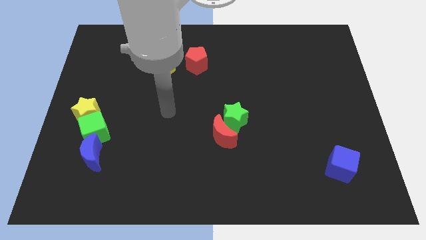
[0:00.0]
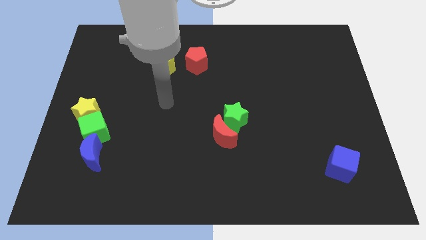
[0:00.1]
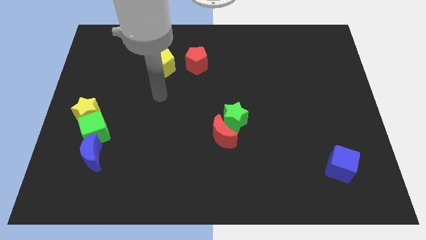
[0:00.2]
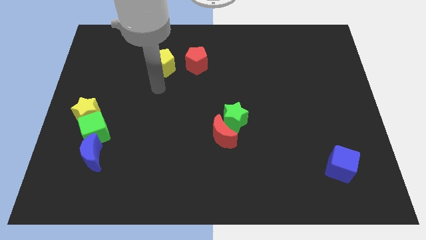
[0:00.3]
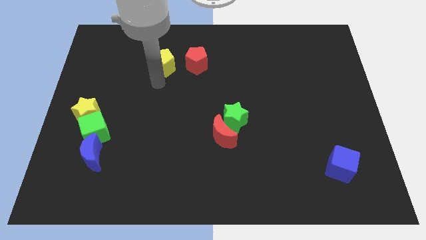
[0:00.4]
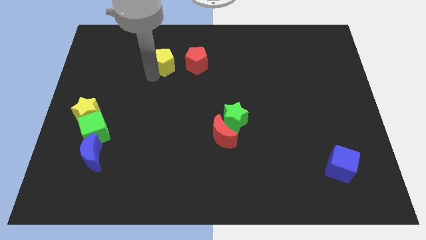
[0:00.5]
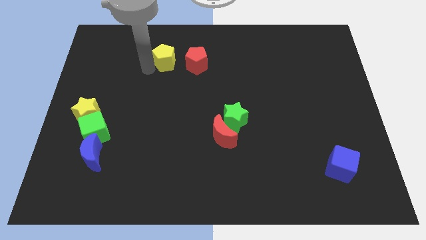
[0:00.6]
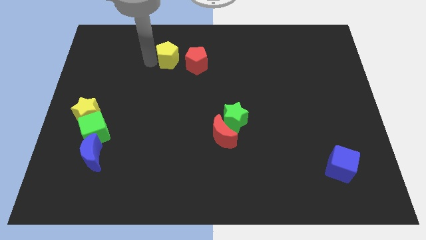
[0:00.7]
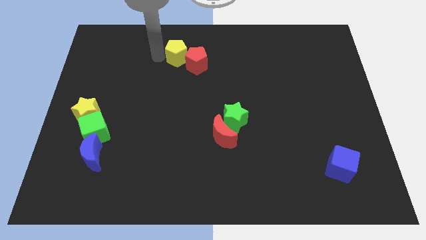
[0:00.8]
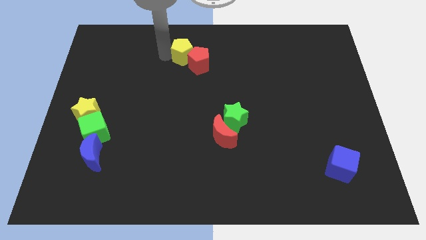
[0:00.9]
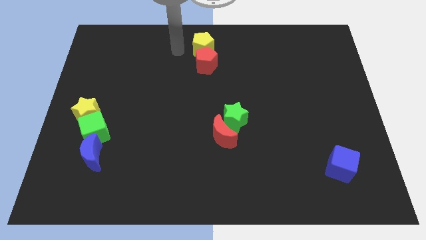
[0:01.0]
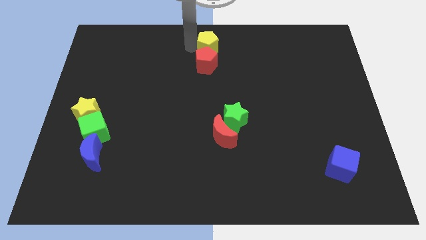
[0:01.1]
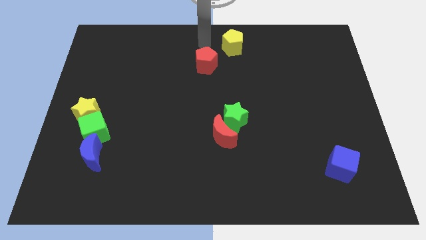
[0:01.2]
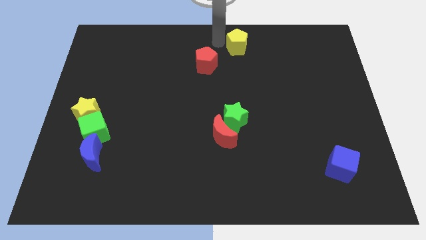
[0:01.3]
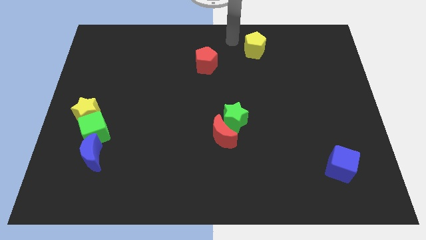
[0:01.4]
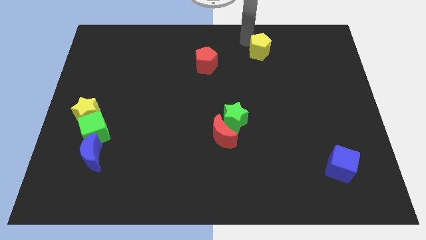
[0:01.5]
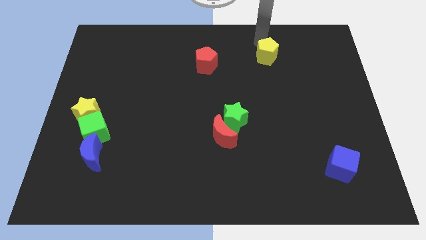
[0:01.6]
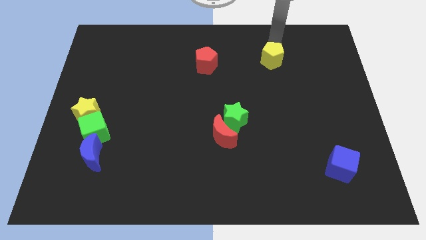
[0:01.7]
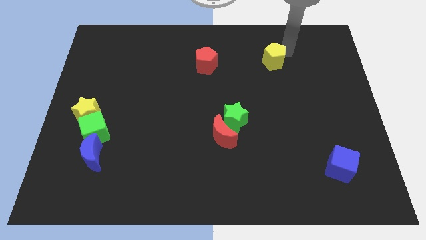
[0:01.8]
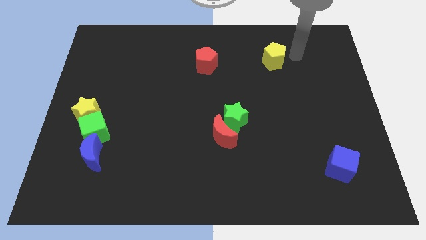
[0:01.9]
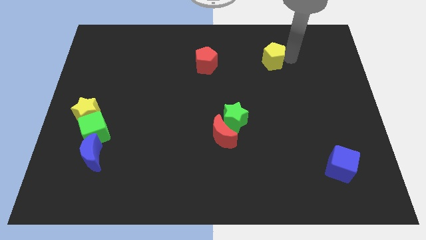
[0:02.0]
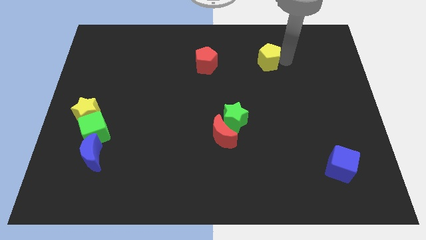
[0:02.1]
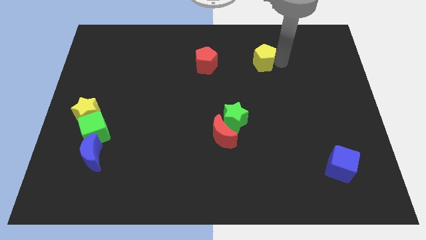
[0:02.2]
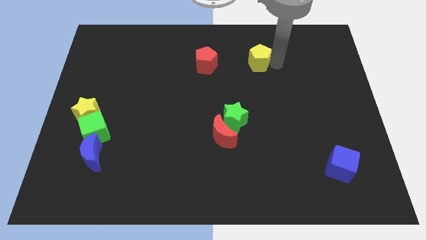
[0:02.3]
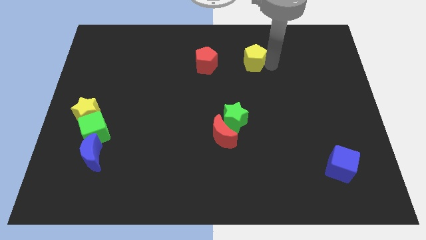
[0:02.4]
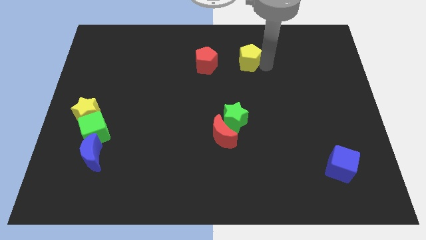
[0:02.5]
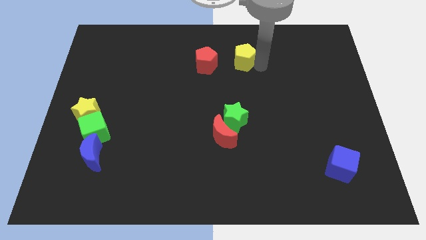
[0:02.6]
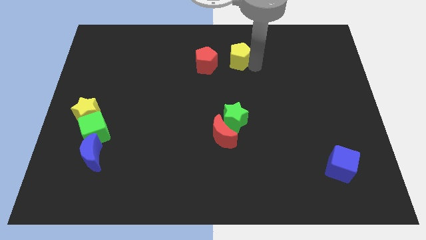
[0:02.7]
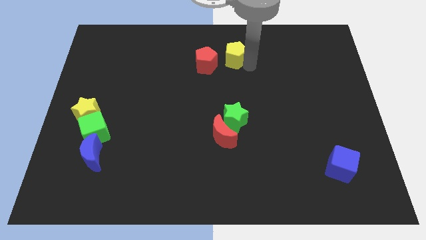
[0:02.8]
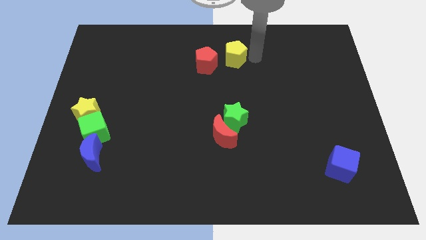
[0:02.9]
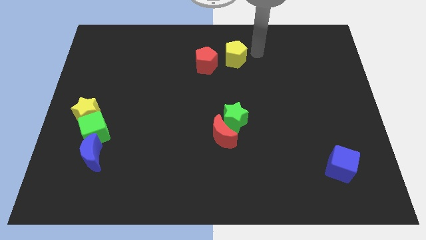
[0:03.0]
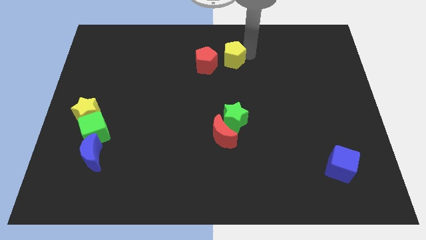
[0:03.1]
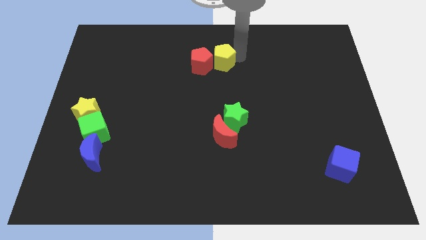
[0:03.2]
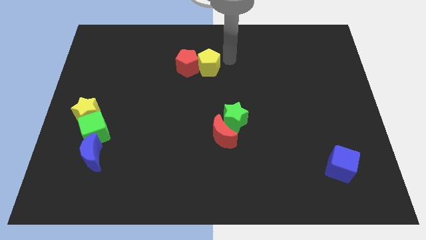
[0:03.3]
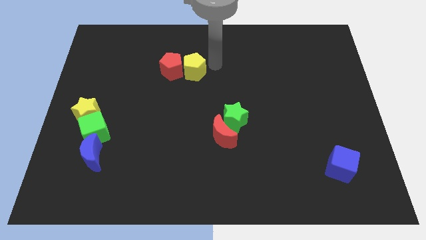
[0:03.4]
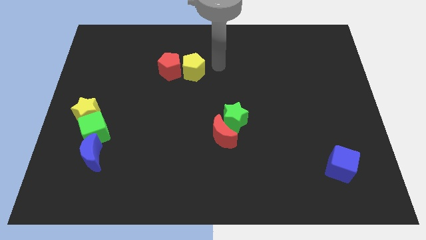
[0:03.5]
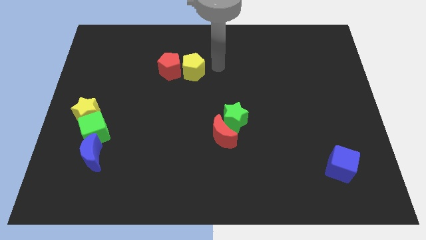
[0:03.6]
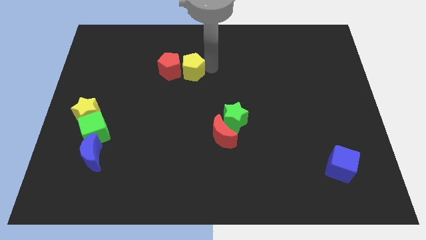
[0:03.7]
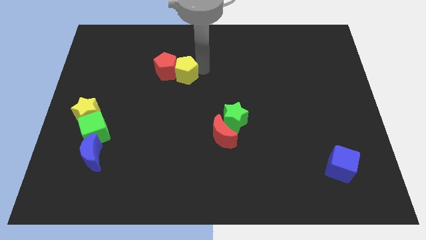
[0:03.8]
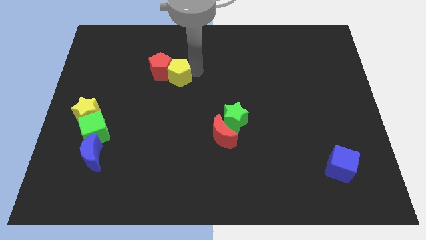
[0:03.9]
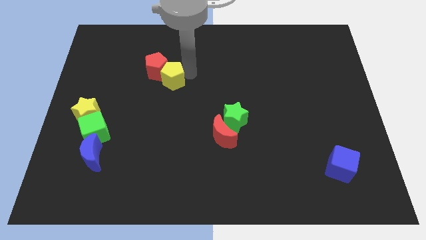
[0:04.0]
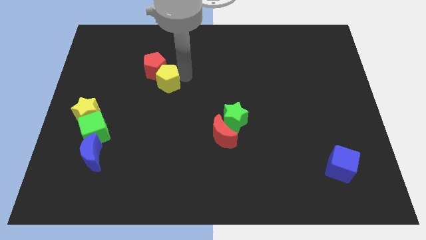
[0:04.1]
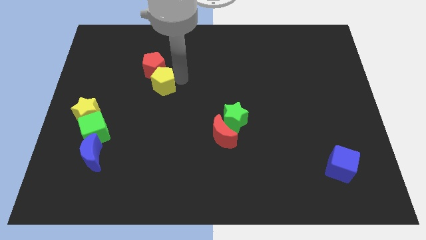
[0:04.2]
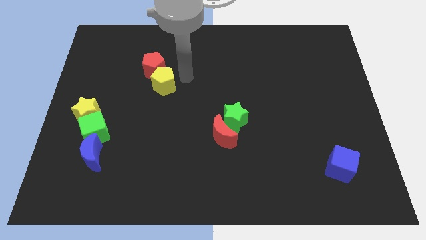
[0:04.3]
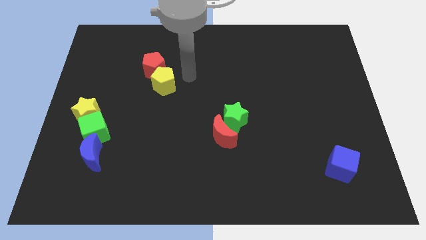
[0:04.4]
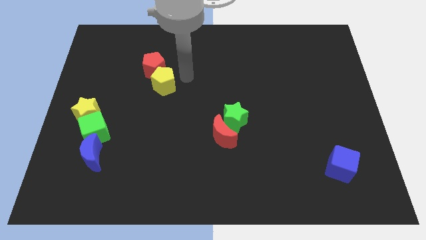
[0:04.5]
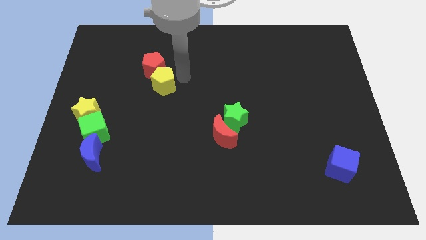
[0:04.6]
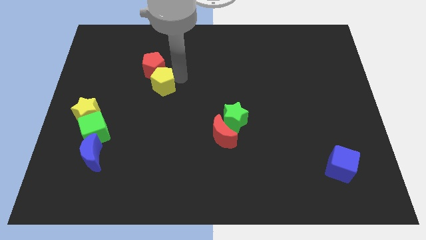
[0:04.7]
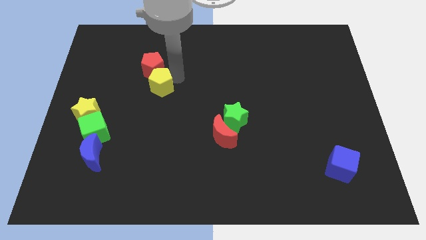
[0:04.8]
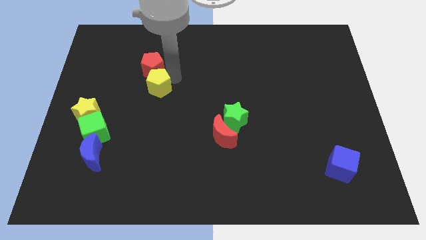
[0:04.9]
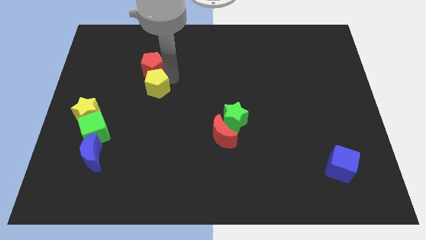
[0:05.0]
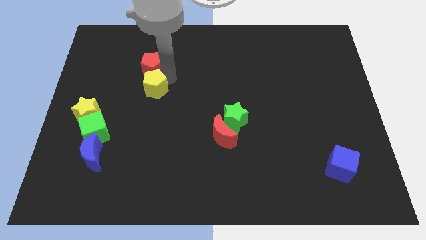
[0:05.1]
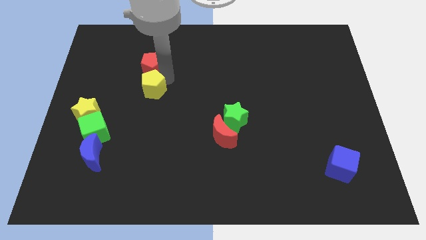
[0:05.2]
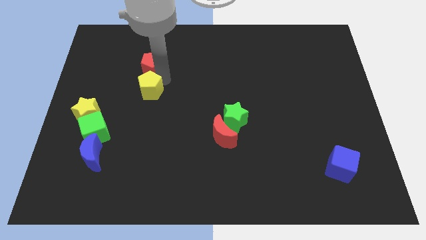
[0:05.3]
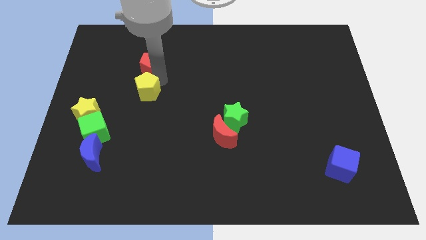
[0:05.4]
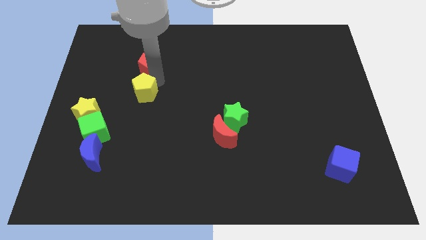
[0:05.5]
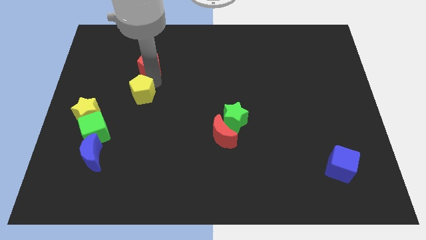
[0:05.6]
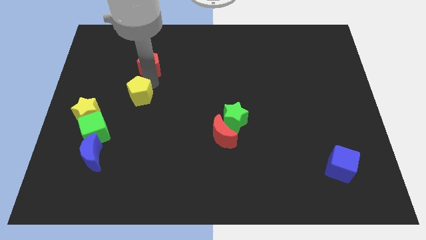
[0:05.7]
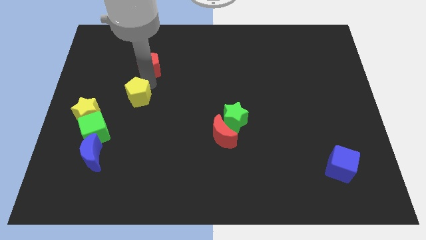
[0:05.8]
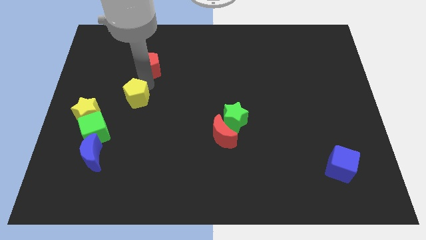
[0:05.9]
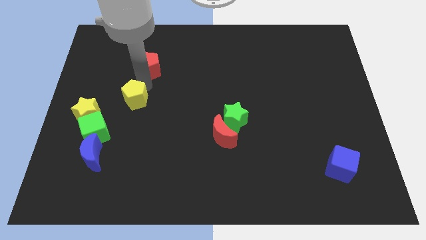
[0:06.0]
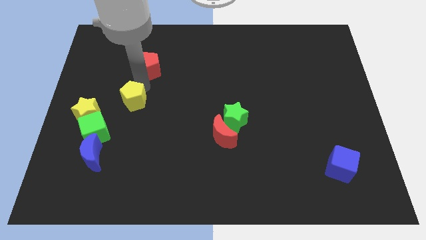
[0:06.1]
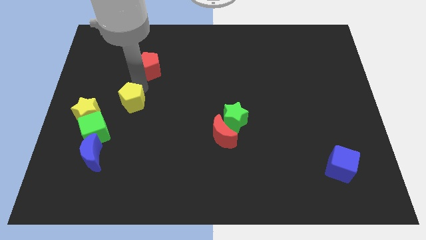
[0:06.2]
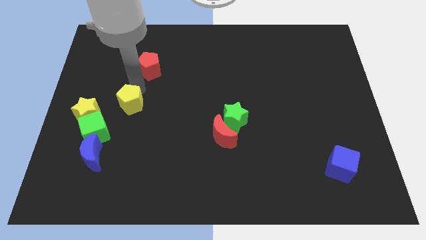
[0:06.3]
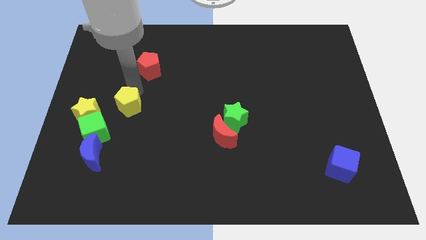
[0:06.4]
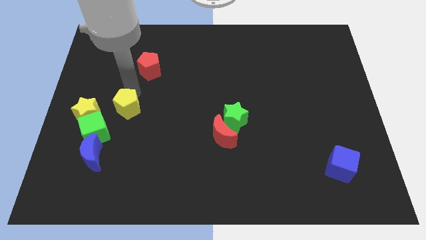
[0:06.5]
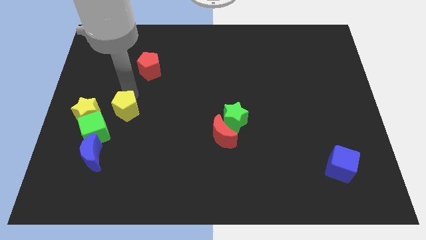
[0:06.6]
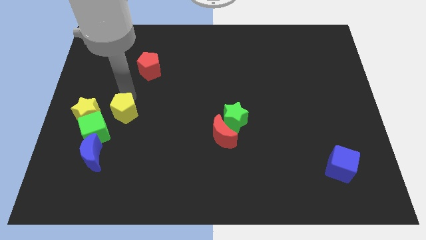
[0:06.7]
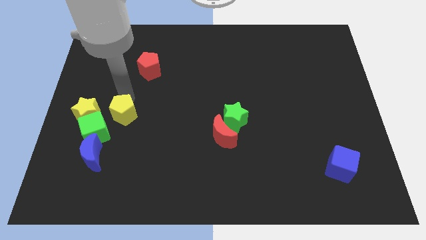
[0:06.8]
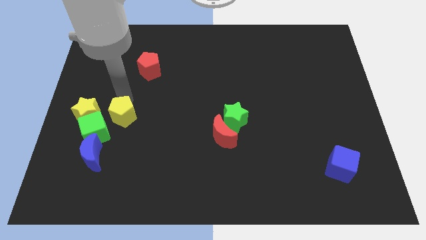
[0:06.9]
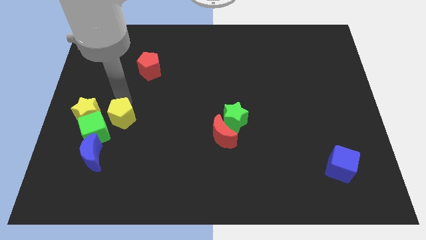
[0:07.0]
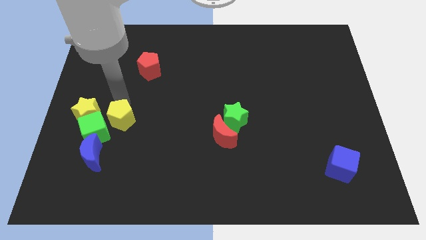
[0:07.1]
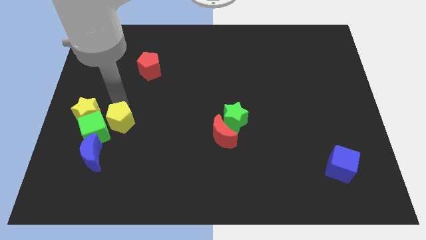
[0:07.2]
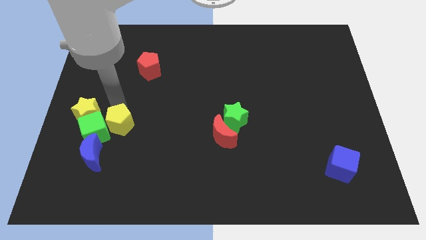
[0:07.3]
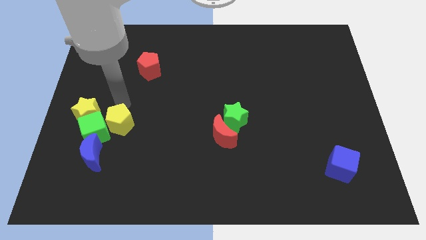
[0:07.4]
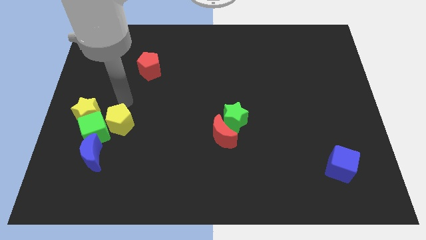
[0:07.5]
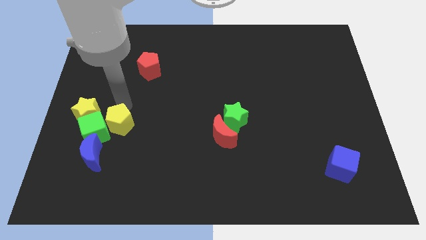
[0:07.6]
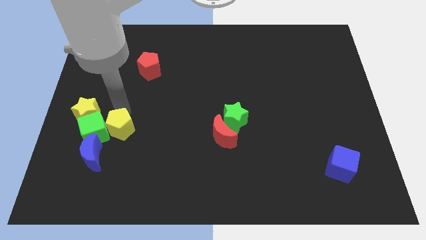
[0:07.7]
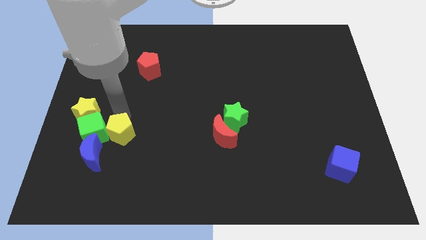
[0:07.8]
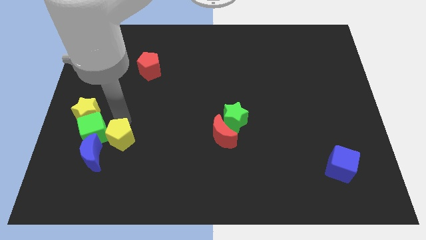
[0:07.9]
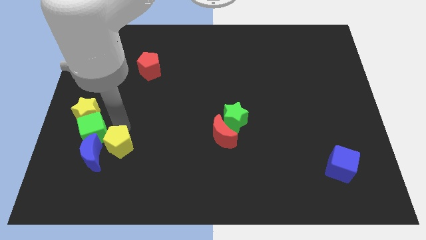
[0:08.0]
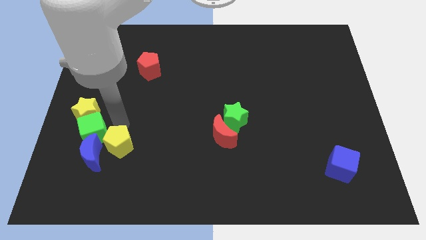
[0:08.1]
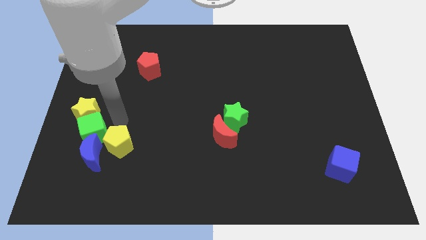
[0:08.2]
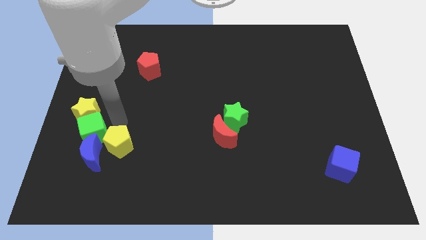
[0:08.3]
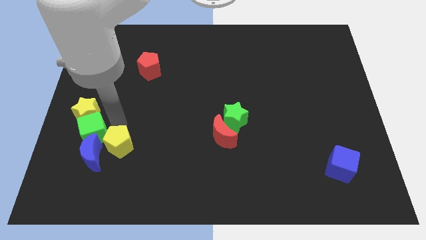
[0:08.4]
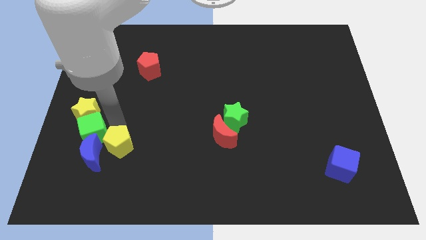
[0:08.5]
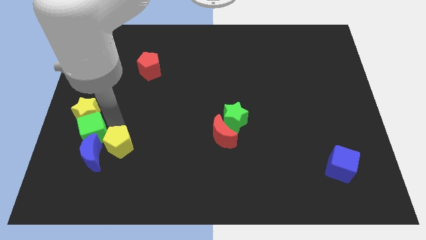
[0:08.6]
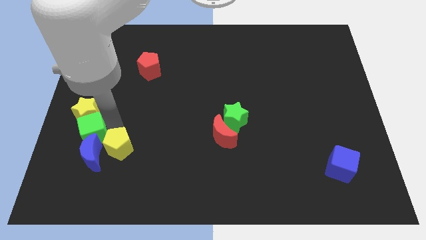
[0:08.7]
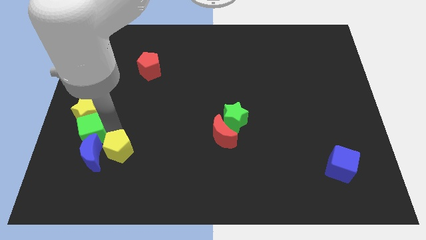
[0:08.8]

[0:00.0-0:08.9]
push the yellow pentagon to the bottom right of the blue moon
